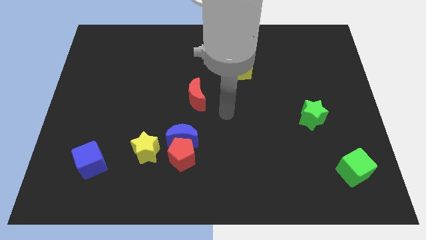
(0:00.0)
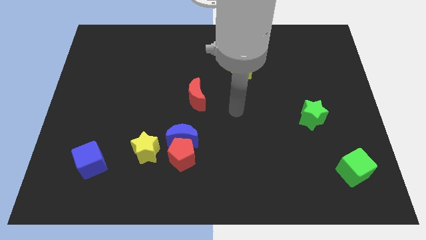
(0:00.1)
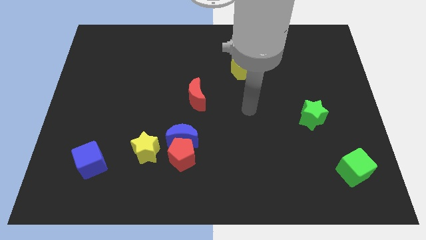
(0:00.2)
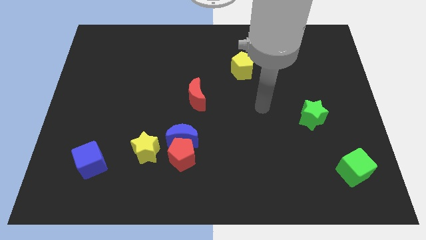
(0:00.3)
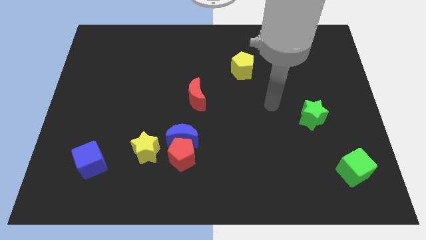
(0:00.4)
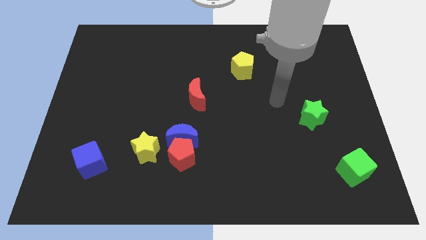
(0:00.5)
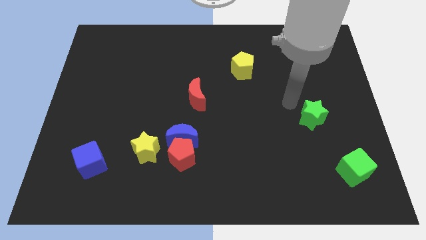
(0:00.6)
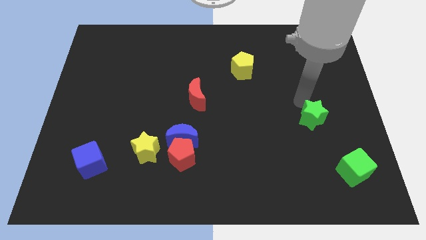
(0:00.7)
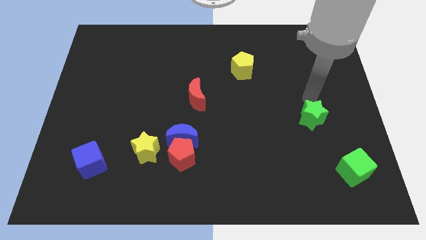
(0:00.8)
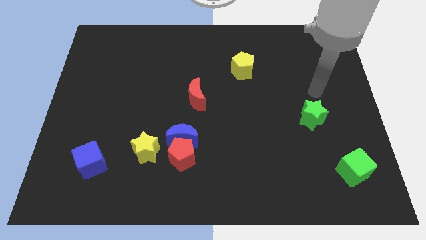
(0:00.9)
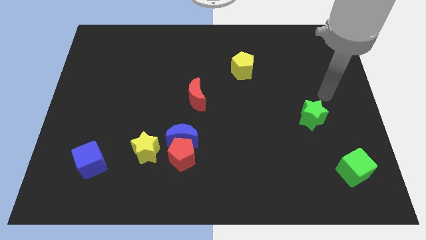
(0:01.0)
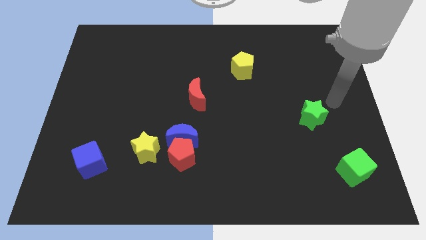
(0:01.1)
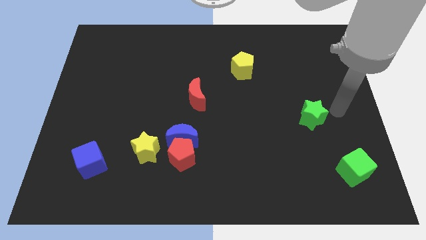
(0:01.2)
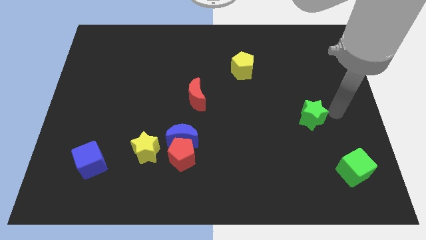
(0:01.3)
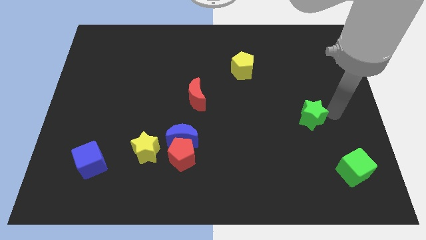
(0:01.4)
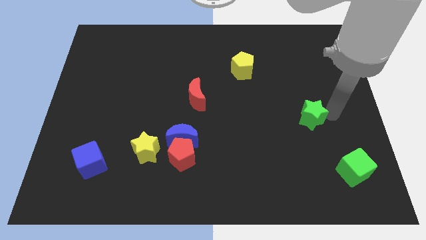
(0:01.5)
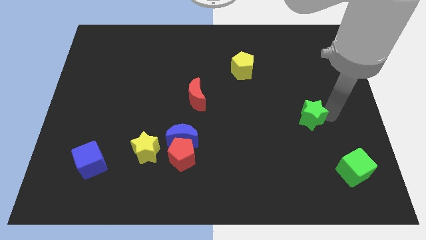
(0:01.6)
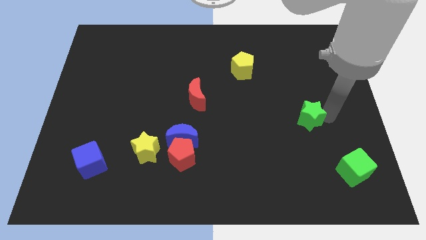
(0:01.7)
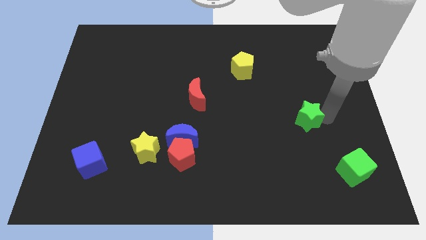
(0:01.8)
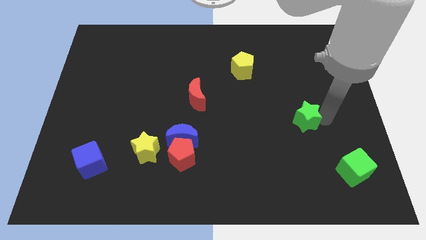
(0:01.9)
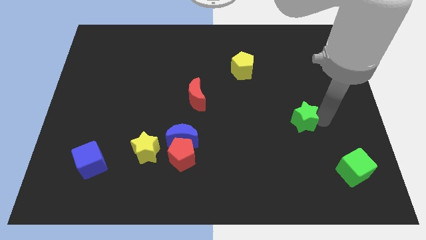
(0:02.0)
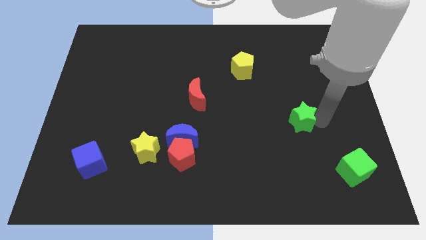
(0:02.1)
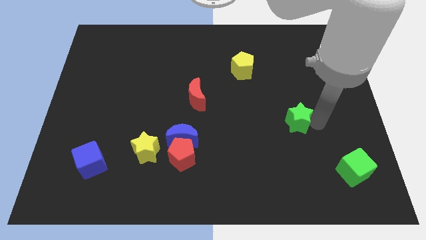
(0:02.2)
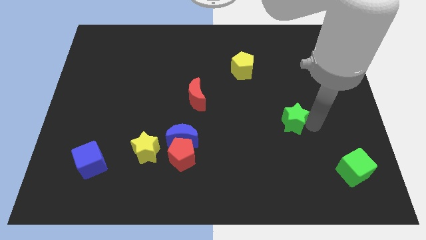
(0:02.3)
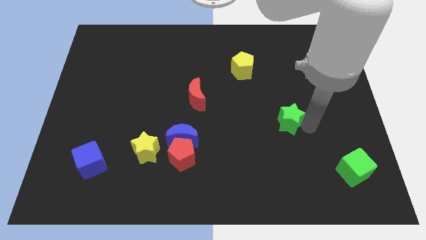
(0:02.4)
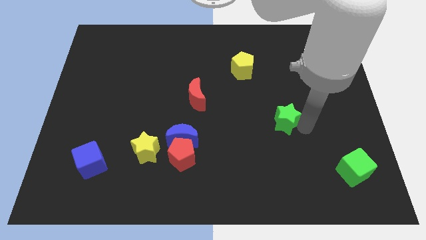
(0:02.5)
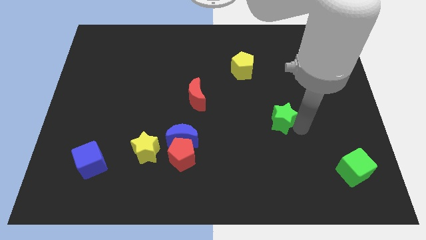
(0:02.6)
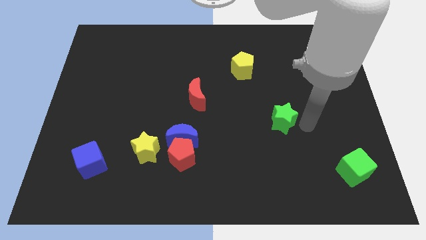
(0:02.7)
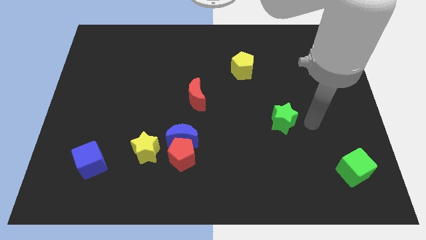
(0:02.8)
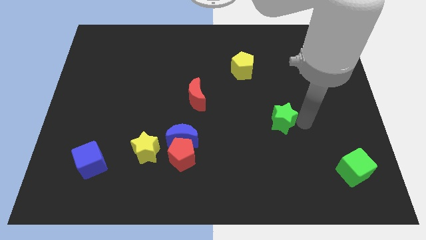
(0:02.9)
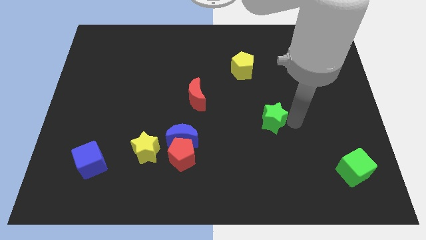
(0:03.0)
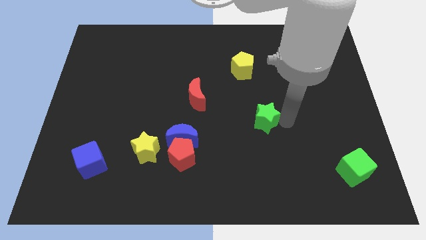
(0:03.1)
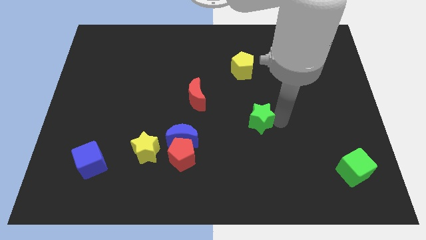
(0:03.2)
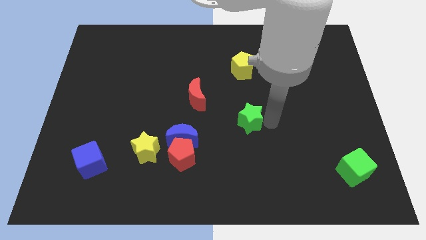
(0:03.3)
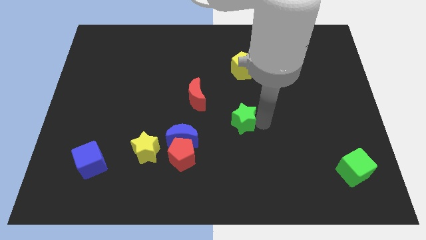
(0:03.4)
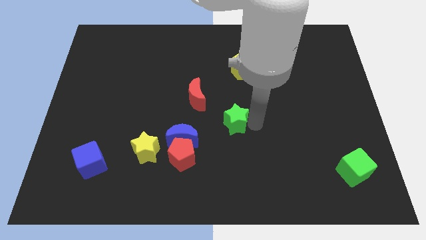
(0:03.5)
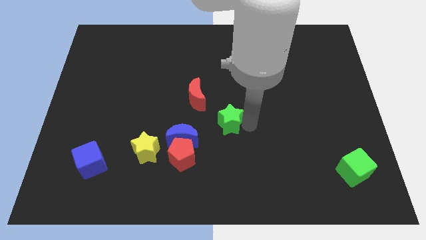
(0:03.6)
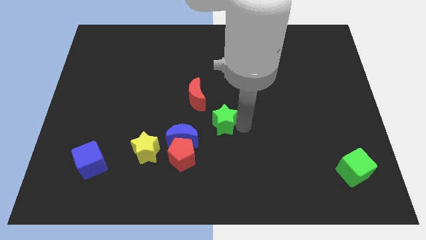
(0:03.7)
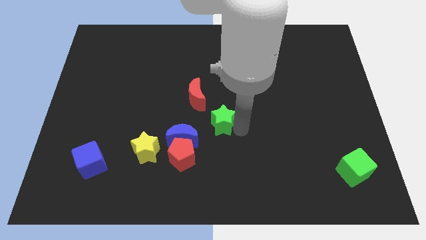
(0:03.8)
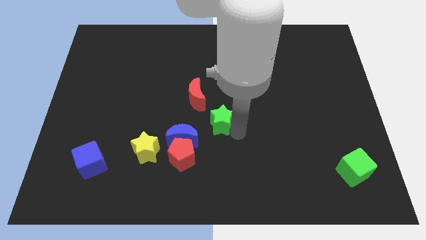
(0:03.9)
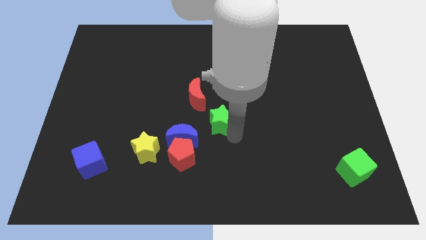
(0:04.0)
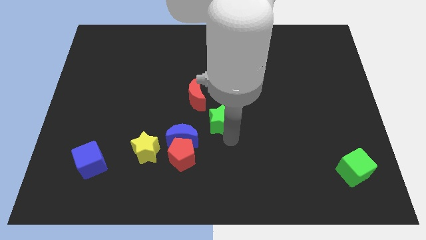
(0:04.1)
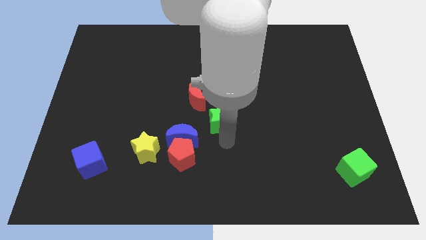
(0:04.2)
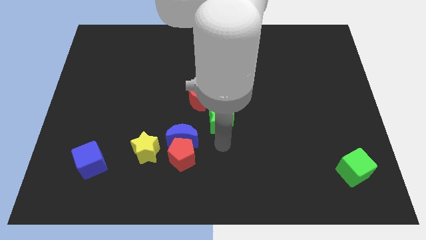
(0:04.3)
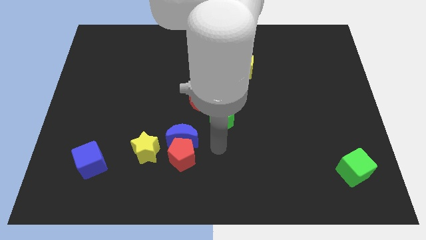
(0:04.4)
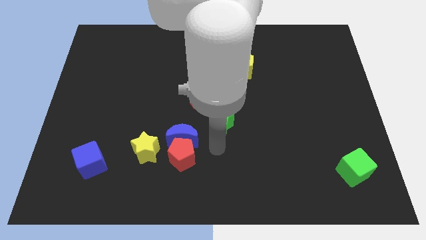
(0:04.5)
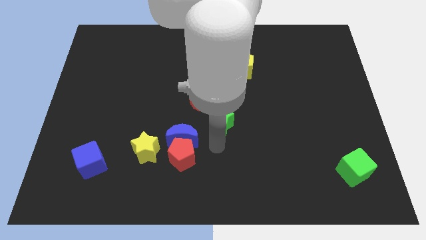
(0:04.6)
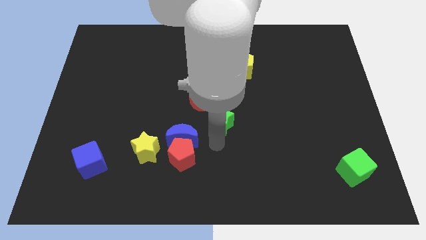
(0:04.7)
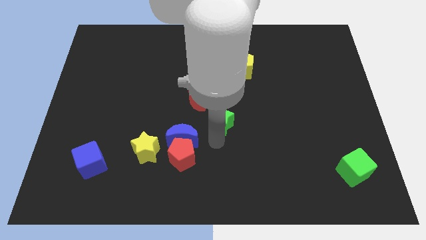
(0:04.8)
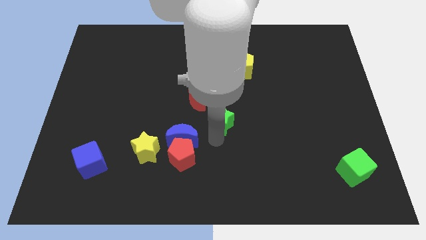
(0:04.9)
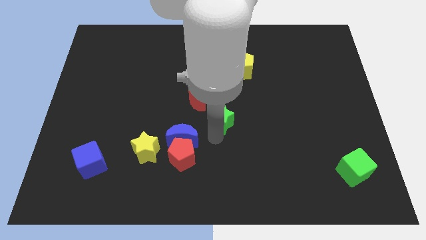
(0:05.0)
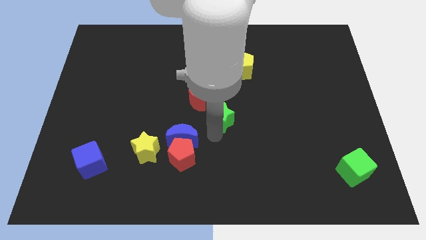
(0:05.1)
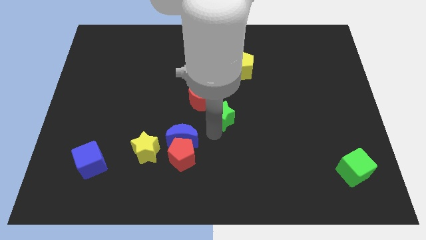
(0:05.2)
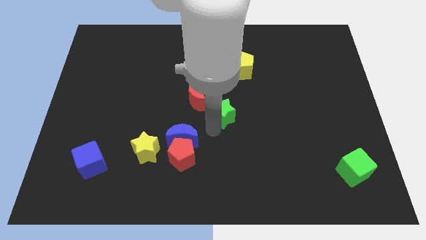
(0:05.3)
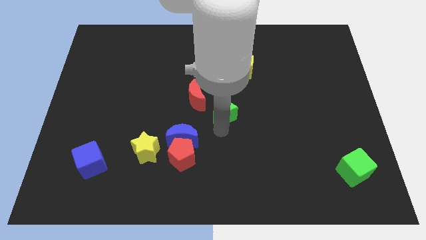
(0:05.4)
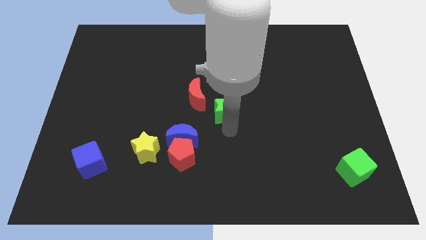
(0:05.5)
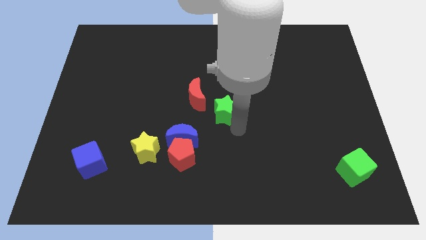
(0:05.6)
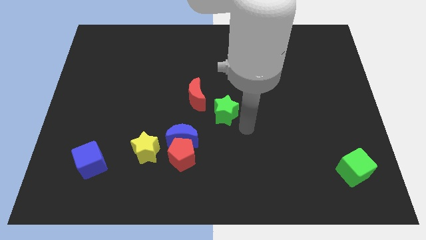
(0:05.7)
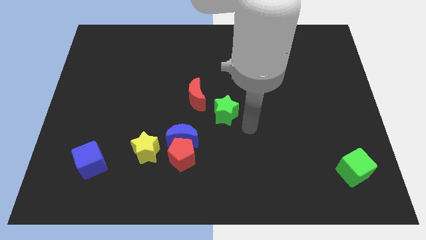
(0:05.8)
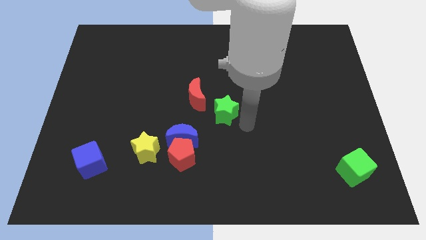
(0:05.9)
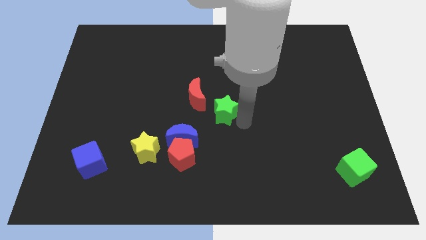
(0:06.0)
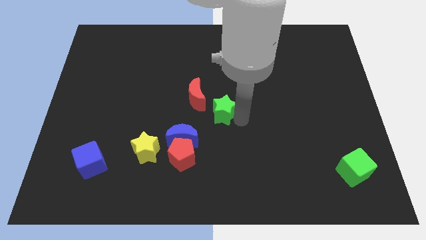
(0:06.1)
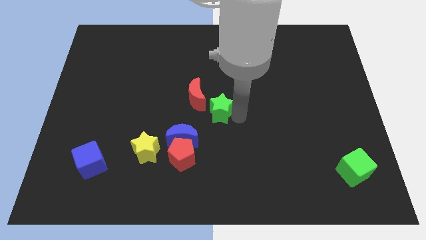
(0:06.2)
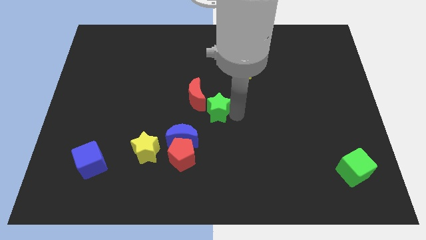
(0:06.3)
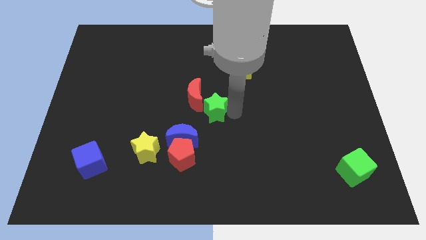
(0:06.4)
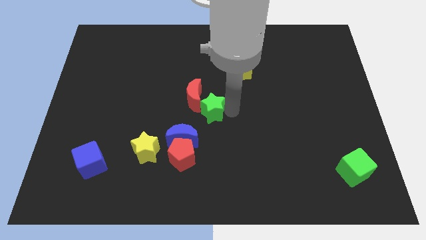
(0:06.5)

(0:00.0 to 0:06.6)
push the green star to the red moon
